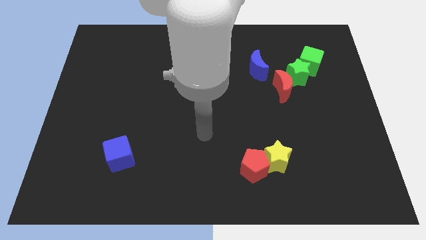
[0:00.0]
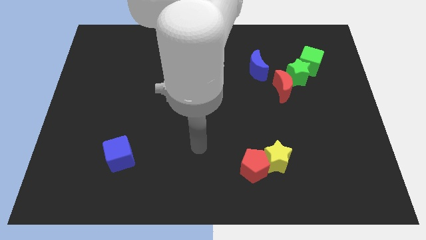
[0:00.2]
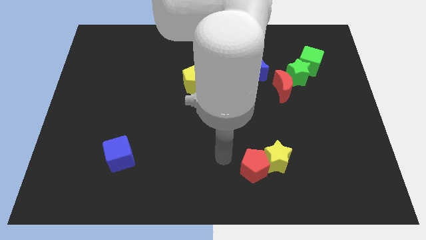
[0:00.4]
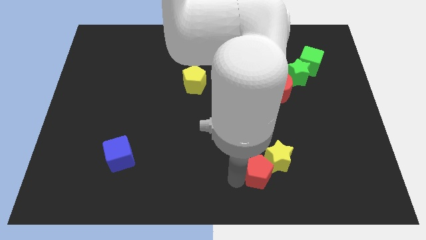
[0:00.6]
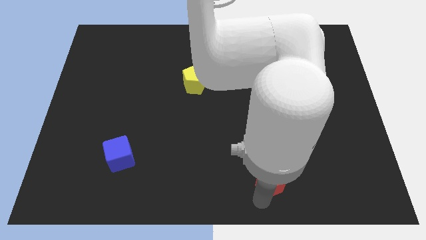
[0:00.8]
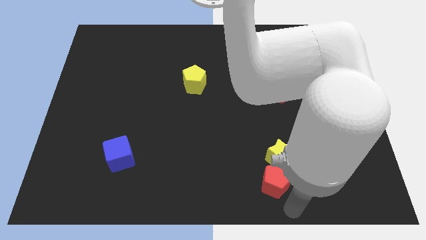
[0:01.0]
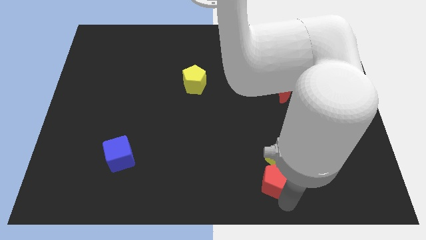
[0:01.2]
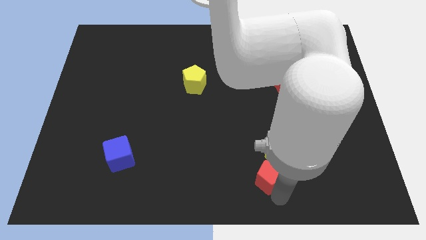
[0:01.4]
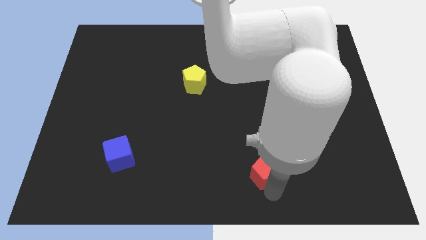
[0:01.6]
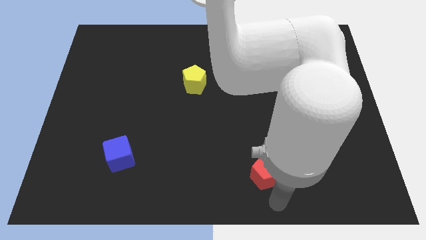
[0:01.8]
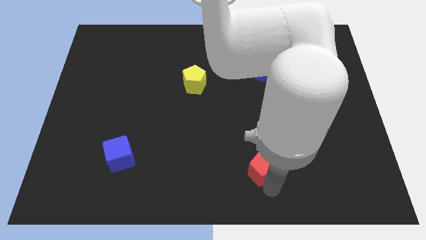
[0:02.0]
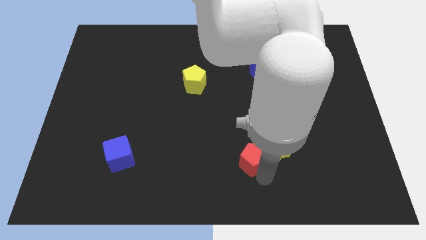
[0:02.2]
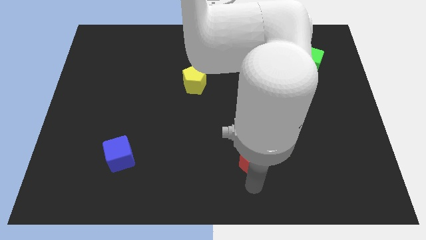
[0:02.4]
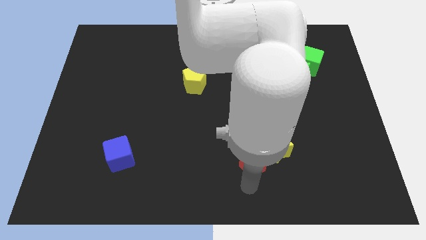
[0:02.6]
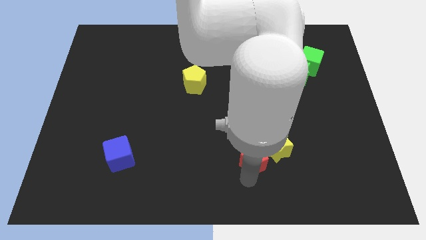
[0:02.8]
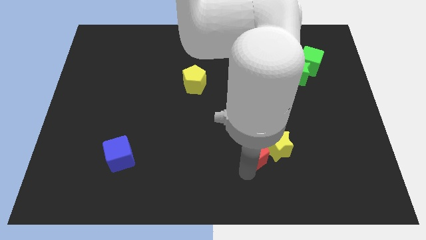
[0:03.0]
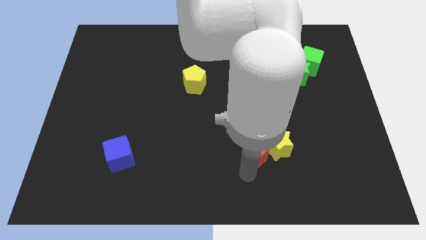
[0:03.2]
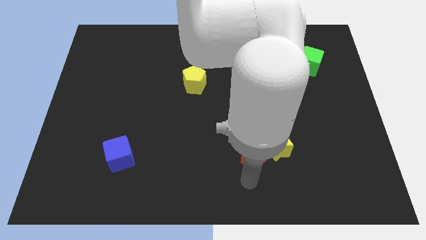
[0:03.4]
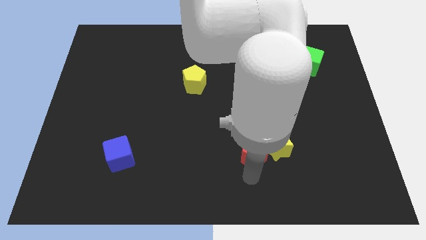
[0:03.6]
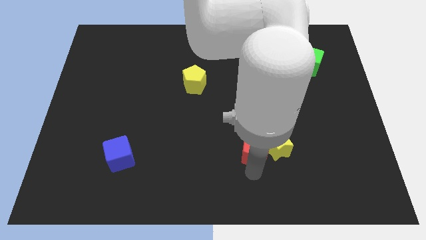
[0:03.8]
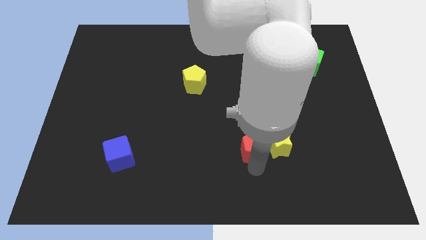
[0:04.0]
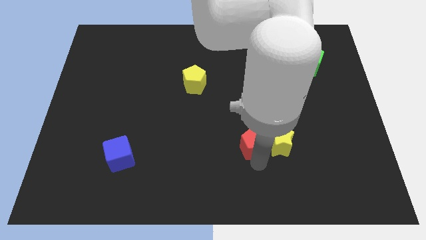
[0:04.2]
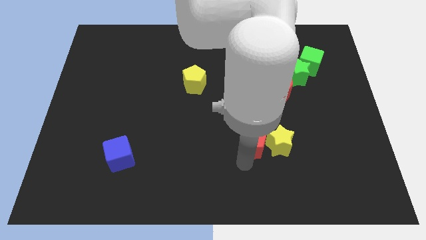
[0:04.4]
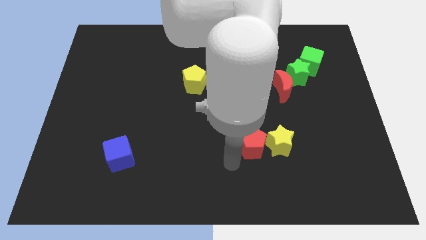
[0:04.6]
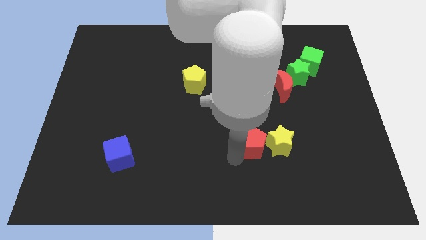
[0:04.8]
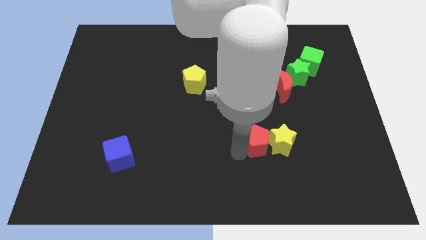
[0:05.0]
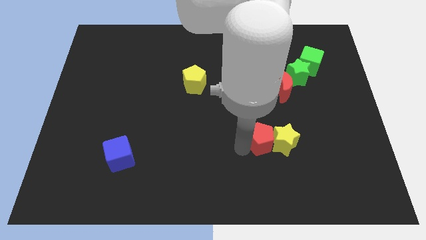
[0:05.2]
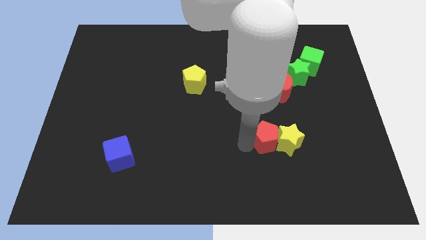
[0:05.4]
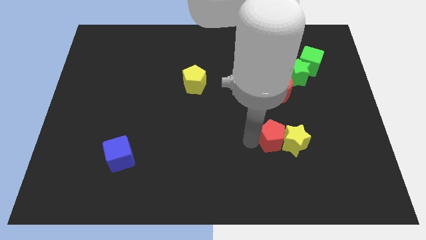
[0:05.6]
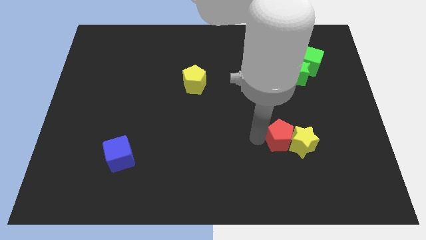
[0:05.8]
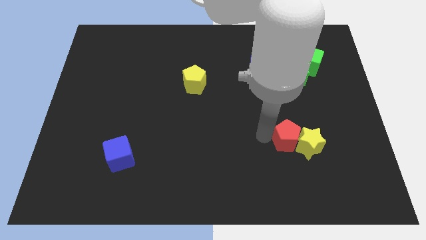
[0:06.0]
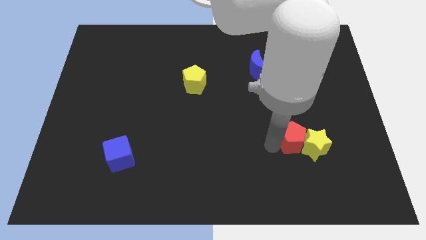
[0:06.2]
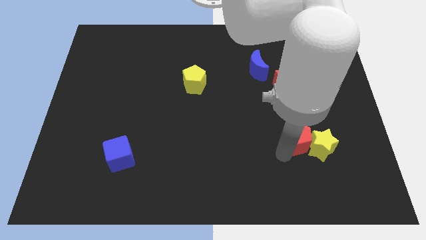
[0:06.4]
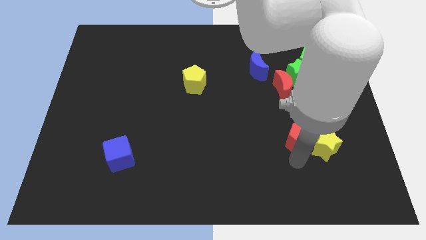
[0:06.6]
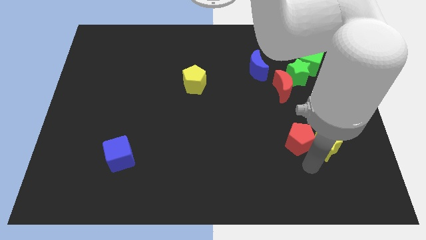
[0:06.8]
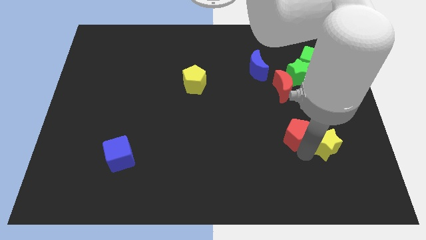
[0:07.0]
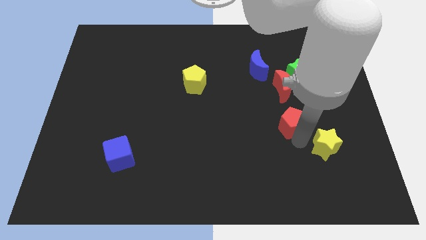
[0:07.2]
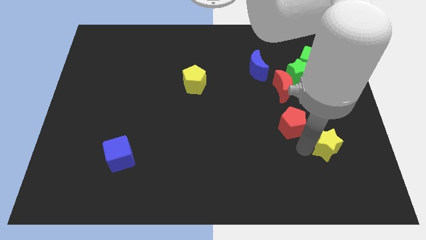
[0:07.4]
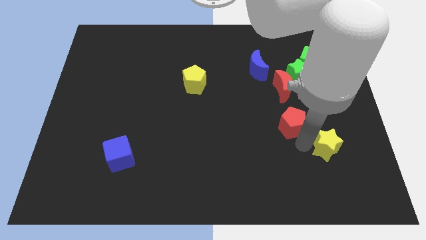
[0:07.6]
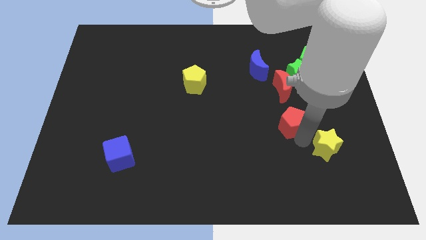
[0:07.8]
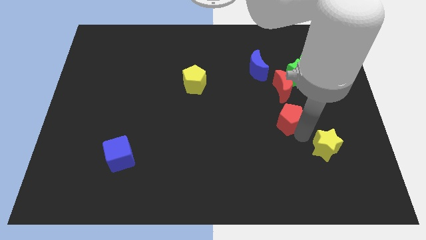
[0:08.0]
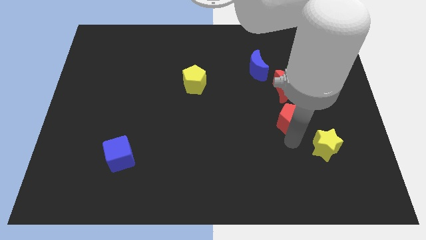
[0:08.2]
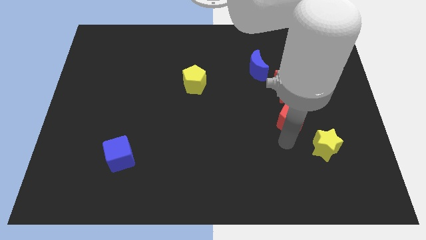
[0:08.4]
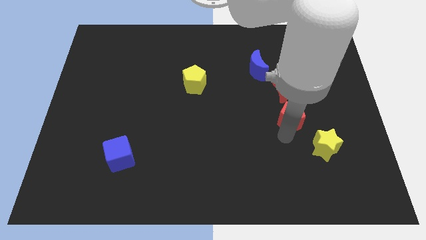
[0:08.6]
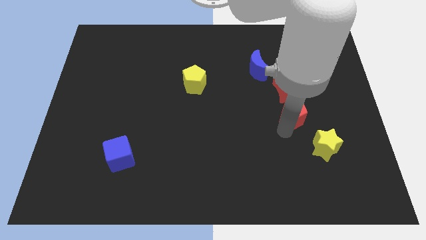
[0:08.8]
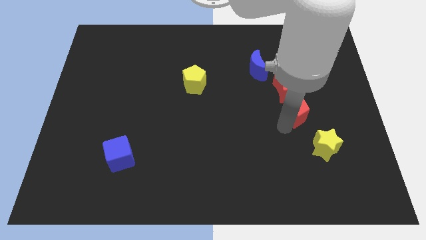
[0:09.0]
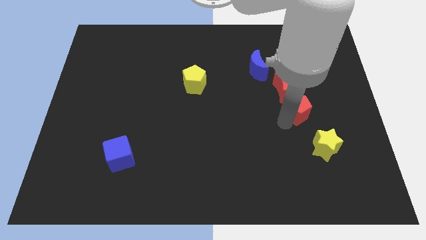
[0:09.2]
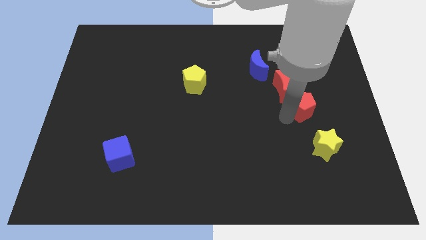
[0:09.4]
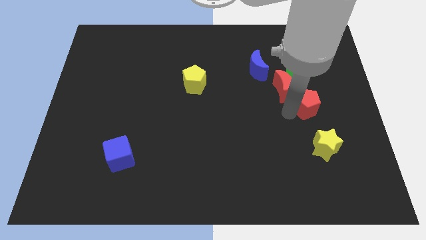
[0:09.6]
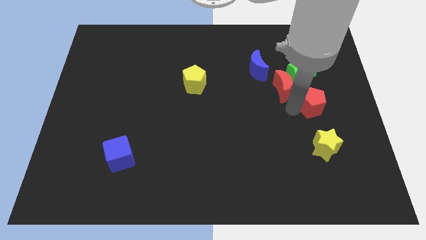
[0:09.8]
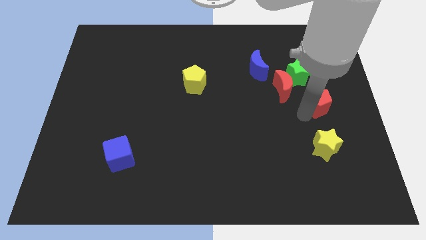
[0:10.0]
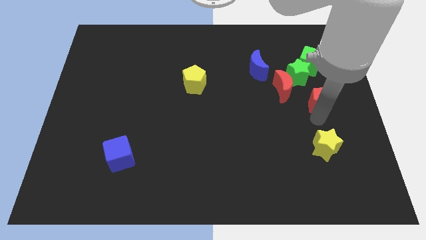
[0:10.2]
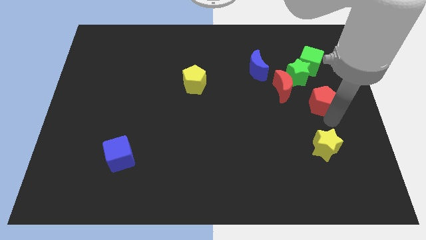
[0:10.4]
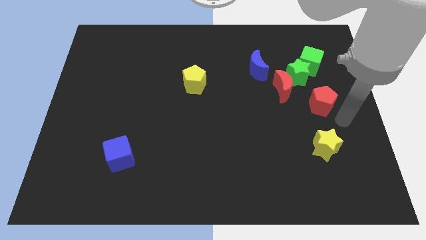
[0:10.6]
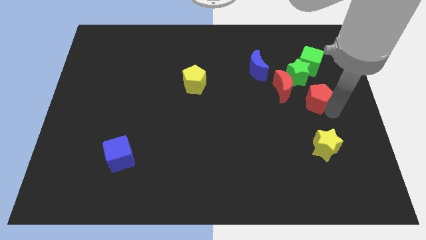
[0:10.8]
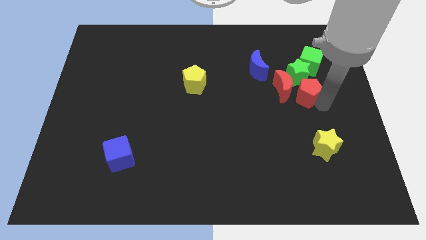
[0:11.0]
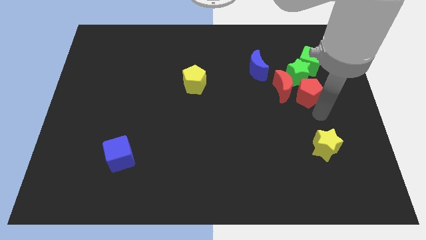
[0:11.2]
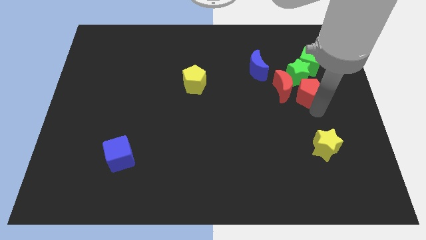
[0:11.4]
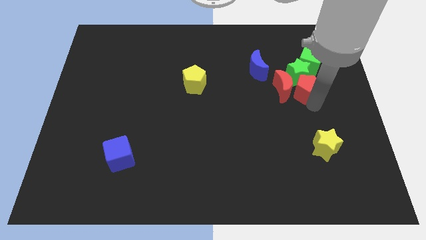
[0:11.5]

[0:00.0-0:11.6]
move the red pentagon towards the green star

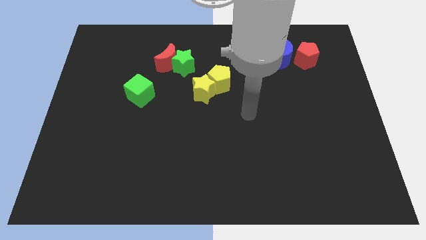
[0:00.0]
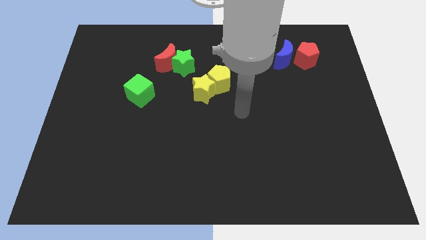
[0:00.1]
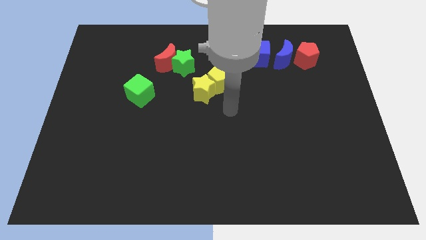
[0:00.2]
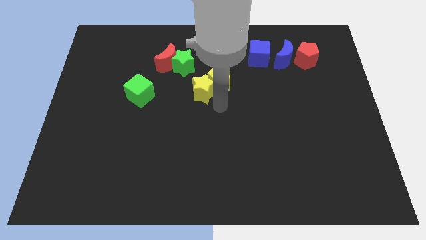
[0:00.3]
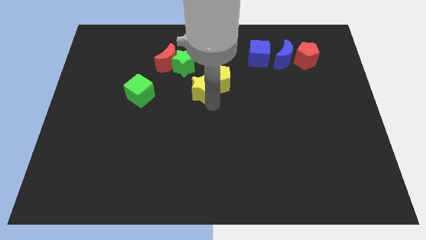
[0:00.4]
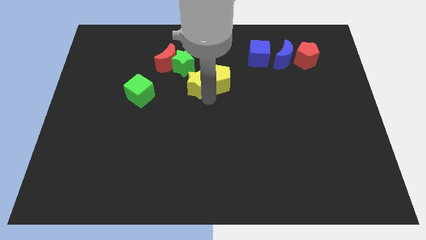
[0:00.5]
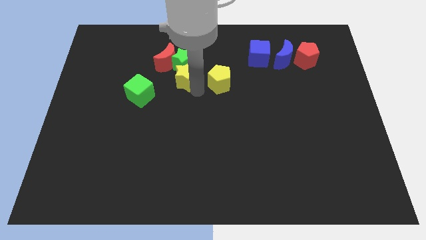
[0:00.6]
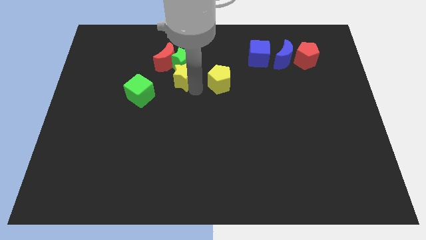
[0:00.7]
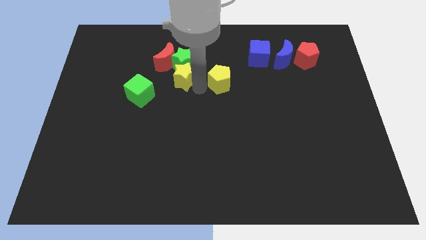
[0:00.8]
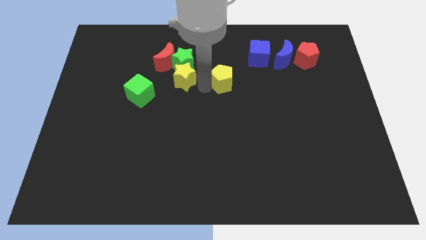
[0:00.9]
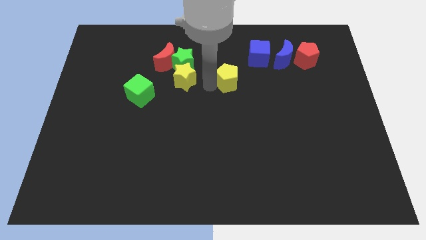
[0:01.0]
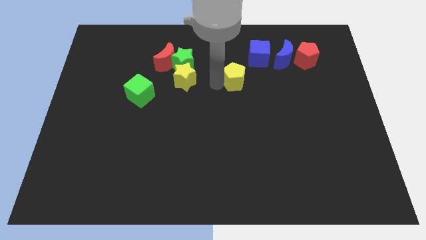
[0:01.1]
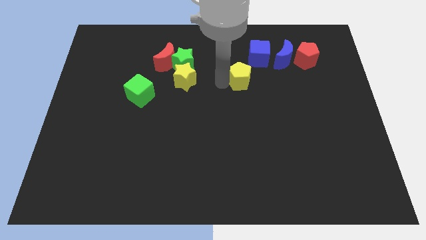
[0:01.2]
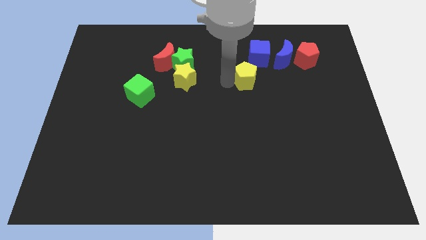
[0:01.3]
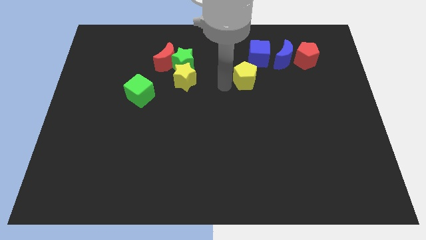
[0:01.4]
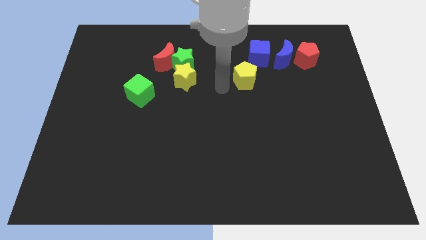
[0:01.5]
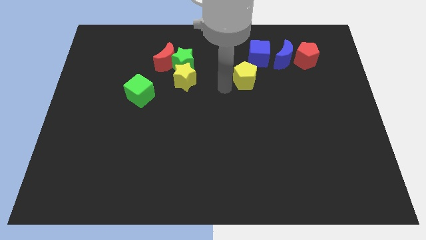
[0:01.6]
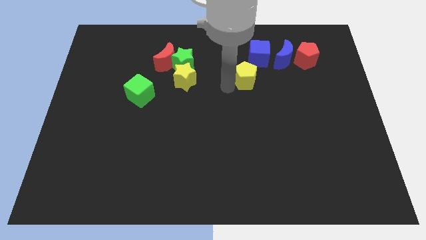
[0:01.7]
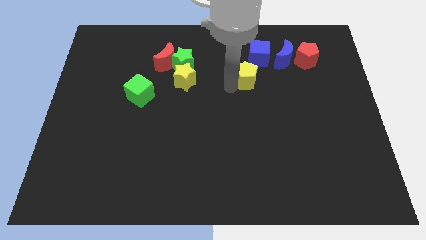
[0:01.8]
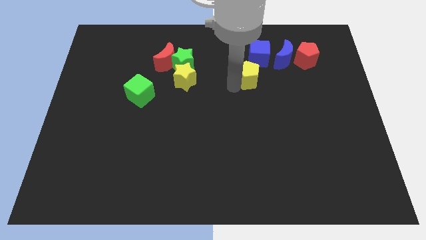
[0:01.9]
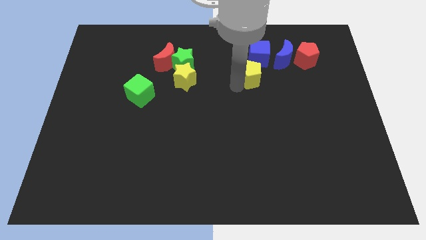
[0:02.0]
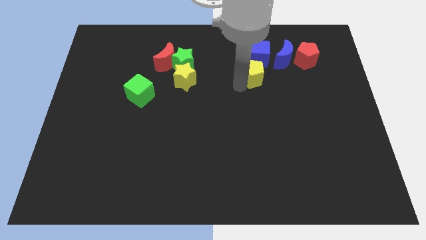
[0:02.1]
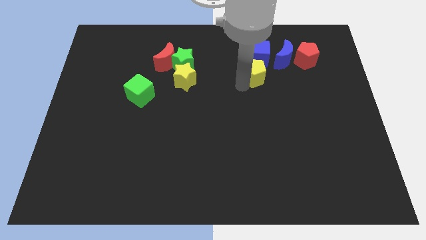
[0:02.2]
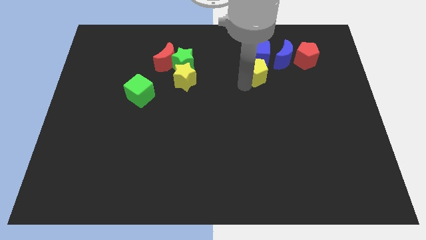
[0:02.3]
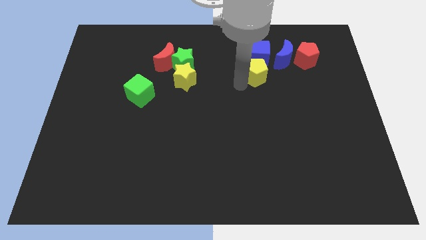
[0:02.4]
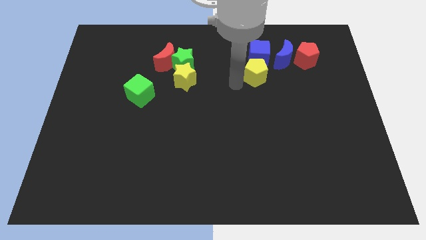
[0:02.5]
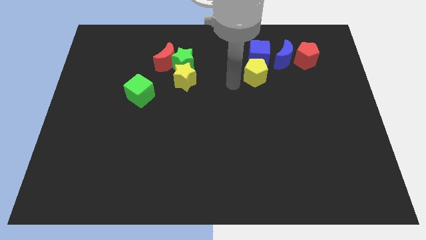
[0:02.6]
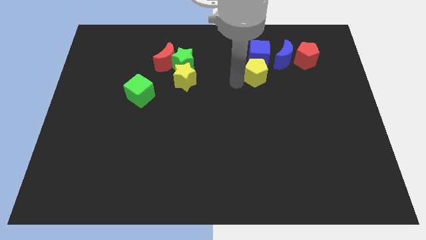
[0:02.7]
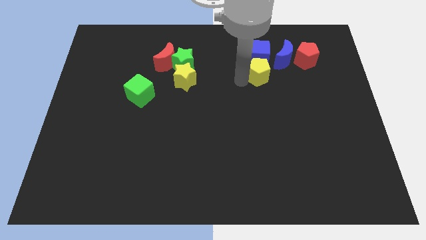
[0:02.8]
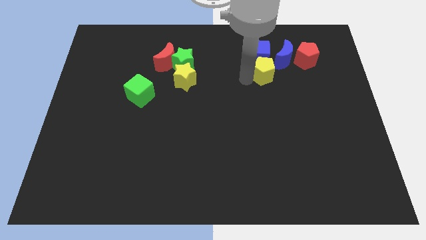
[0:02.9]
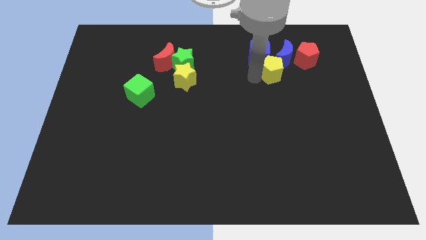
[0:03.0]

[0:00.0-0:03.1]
push the yellow pentagon close to the blue moon
